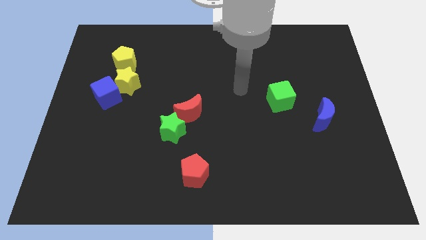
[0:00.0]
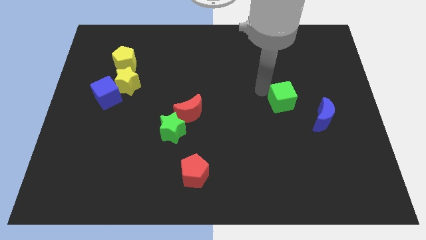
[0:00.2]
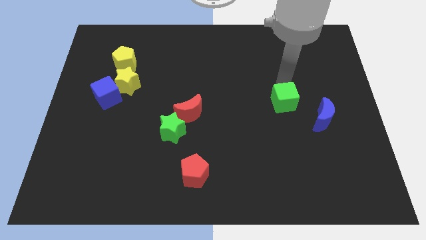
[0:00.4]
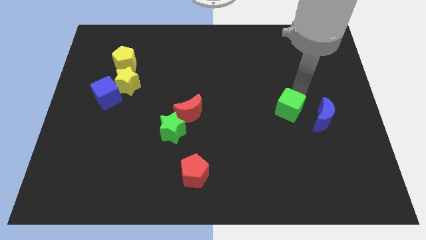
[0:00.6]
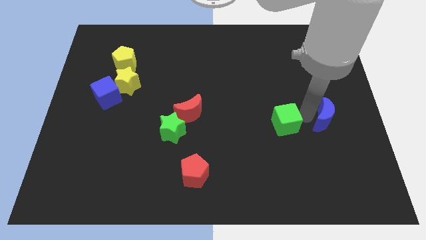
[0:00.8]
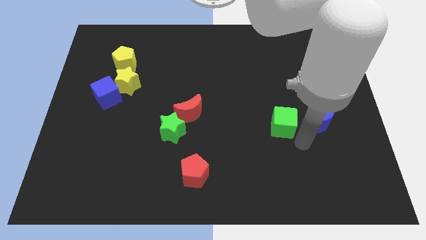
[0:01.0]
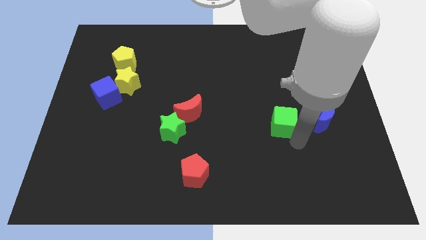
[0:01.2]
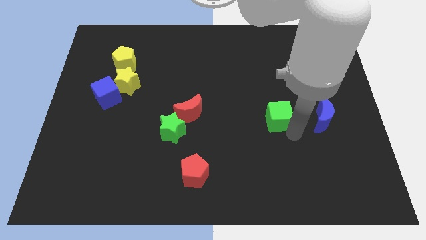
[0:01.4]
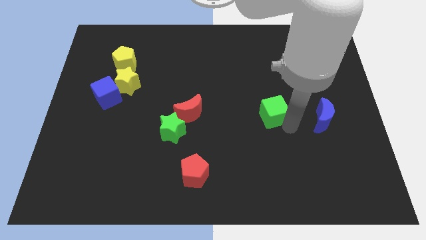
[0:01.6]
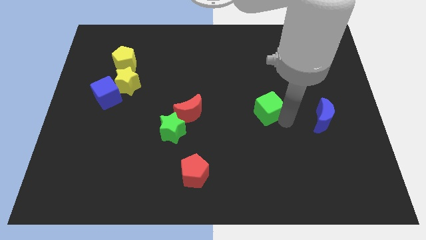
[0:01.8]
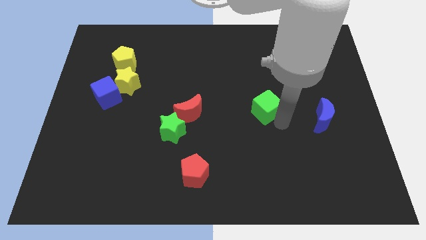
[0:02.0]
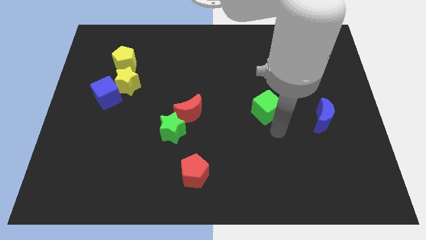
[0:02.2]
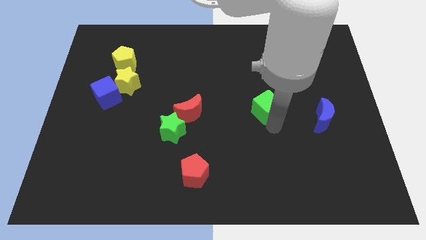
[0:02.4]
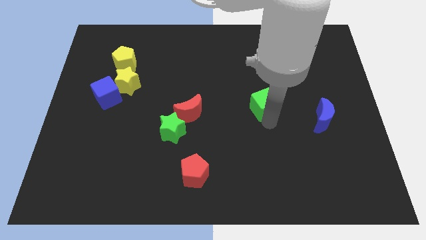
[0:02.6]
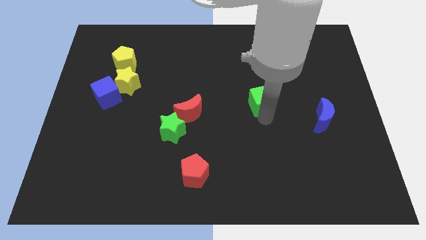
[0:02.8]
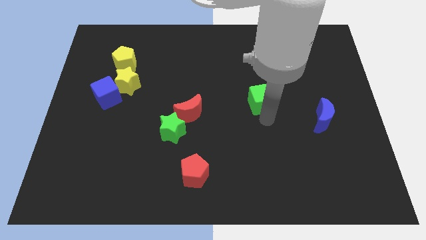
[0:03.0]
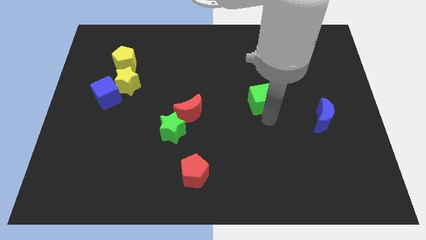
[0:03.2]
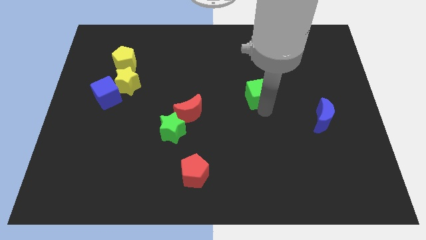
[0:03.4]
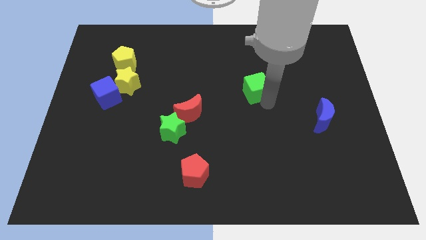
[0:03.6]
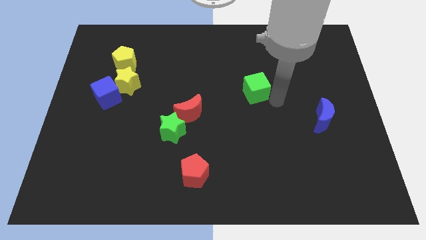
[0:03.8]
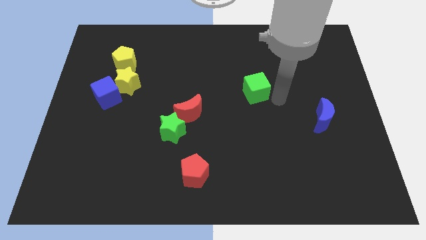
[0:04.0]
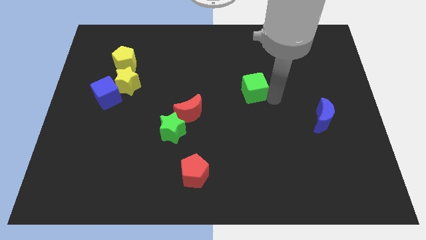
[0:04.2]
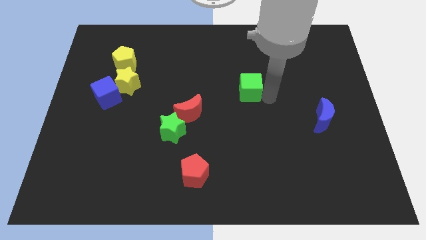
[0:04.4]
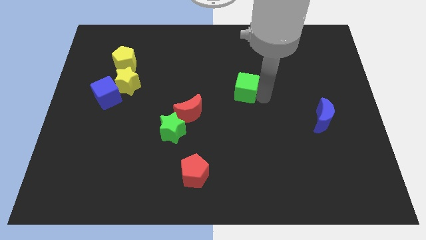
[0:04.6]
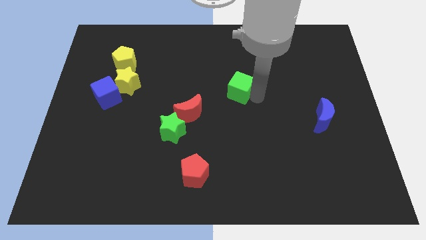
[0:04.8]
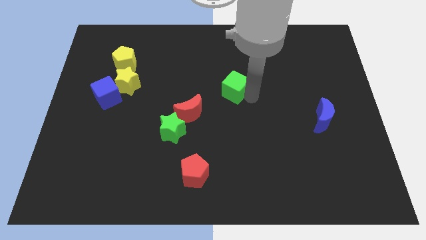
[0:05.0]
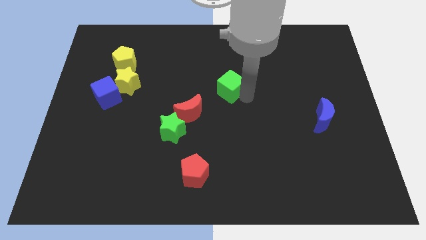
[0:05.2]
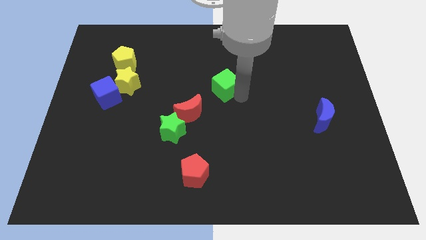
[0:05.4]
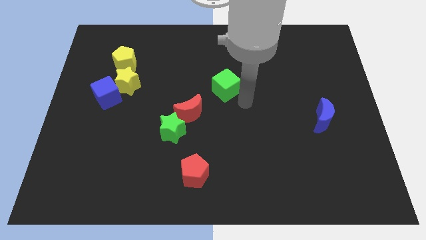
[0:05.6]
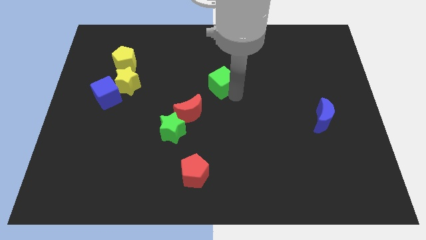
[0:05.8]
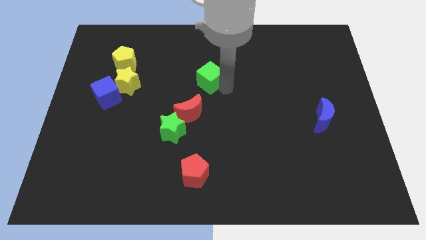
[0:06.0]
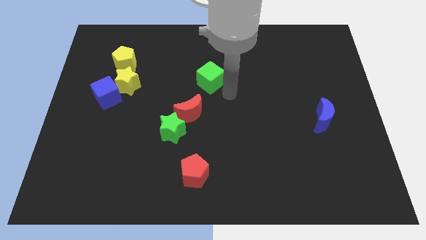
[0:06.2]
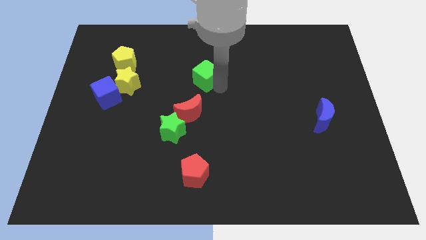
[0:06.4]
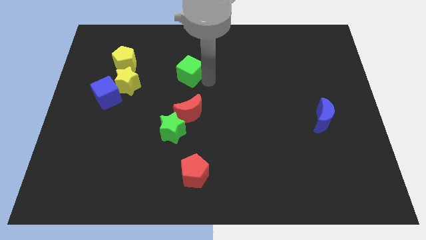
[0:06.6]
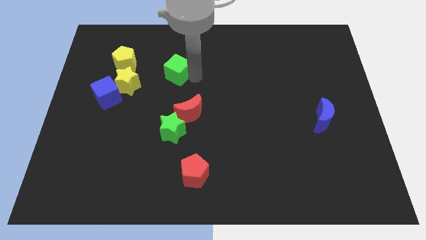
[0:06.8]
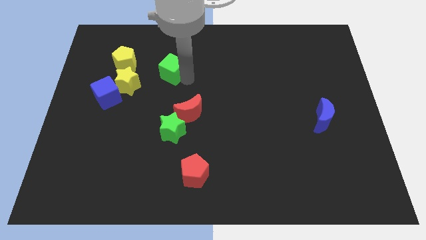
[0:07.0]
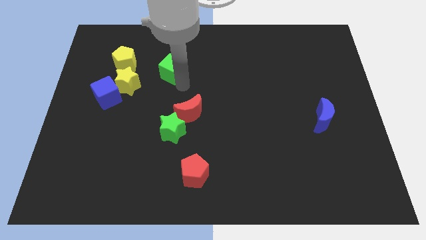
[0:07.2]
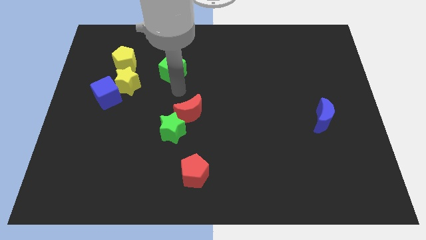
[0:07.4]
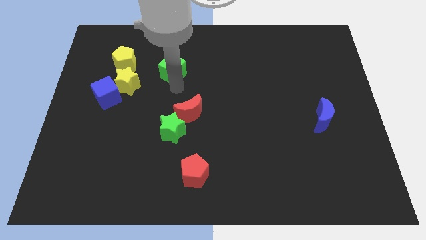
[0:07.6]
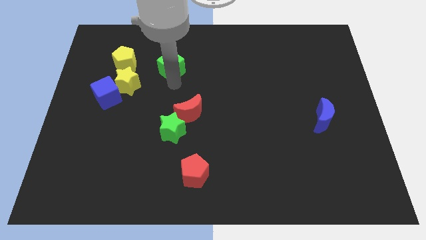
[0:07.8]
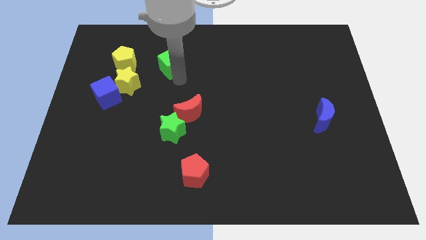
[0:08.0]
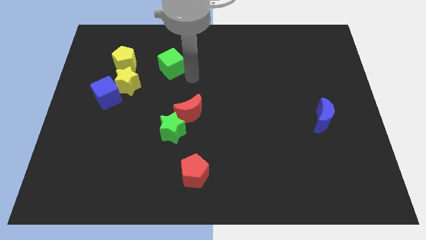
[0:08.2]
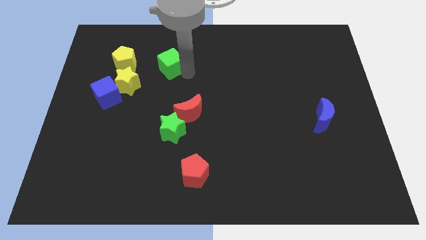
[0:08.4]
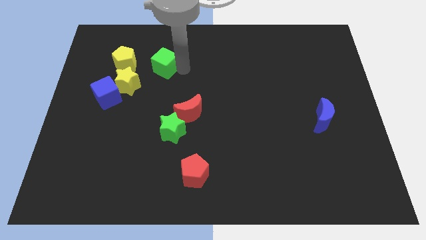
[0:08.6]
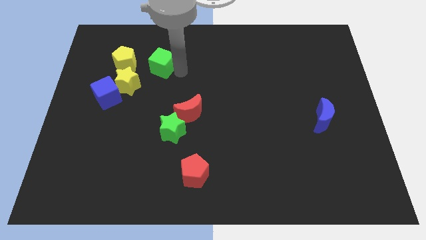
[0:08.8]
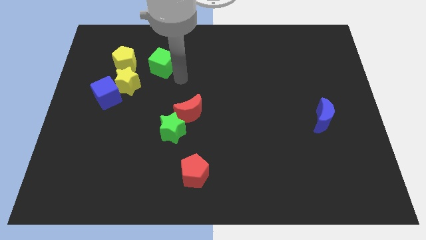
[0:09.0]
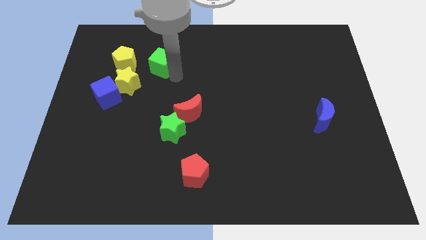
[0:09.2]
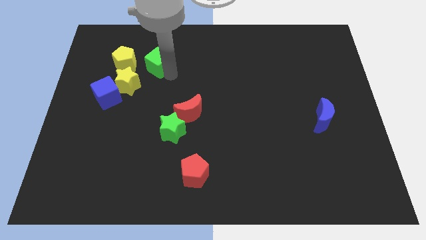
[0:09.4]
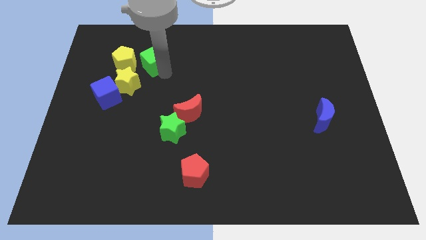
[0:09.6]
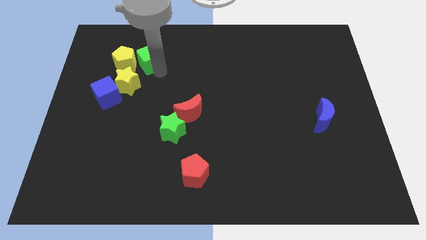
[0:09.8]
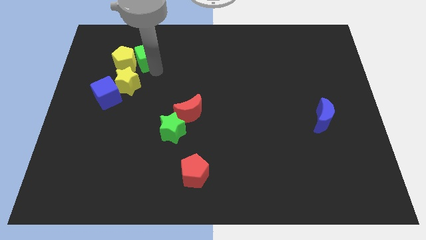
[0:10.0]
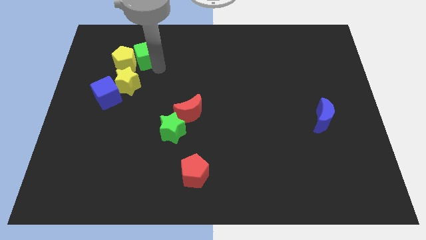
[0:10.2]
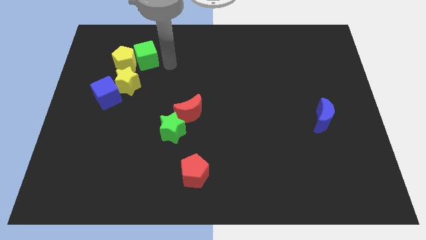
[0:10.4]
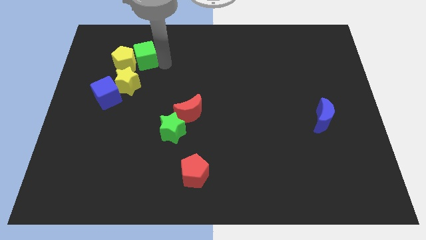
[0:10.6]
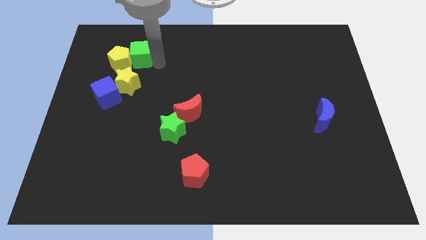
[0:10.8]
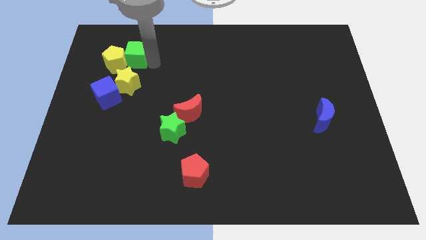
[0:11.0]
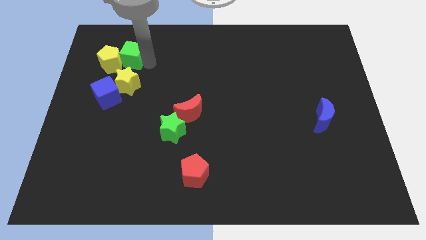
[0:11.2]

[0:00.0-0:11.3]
slide the green cube to the top of the blue cube

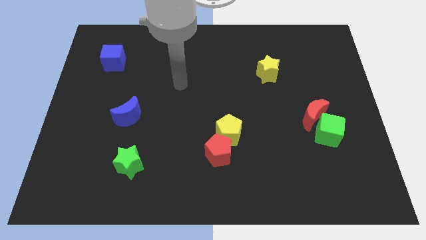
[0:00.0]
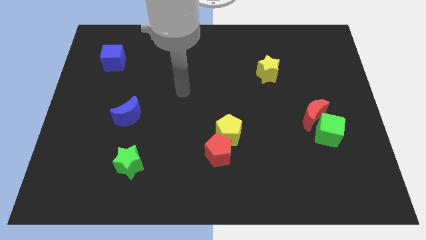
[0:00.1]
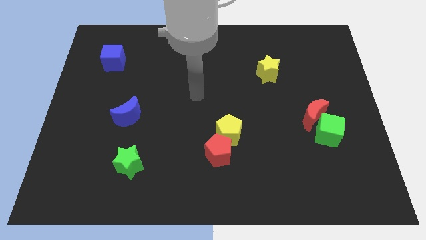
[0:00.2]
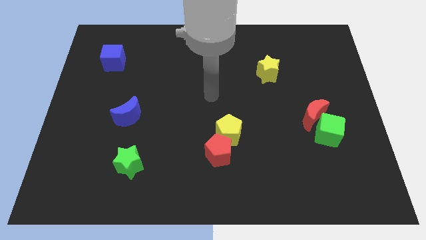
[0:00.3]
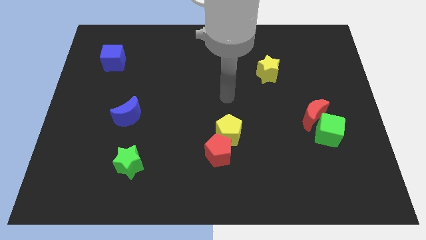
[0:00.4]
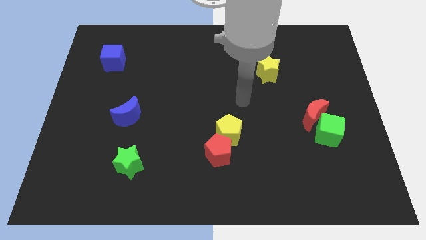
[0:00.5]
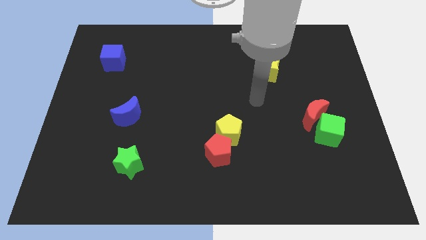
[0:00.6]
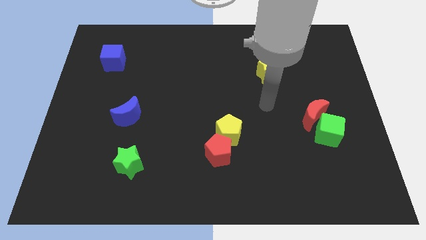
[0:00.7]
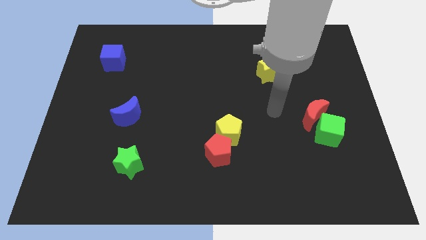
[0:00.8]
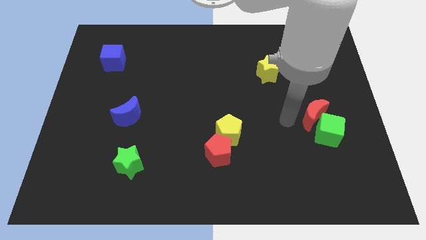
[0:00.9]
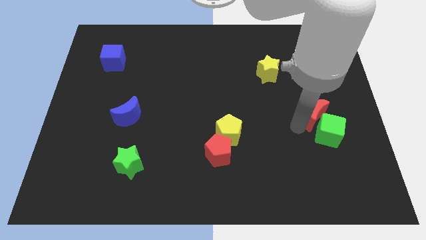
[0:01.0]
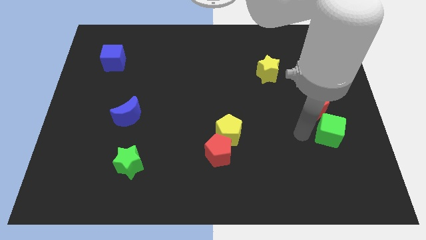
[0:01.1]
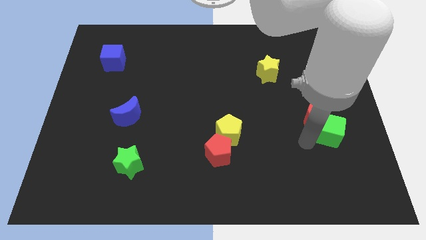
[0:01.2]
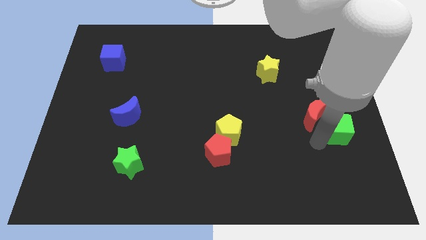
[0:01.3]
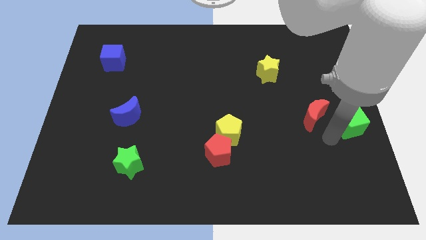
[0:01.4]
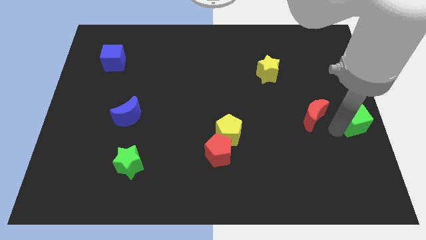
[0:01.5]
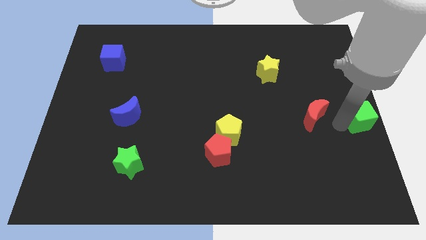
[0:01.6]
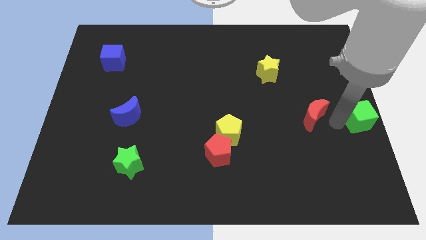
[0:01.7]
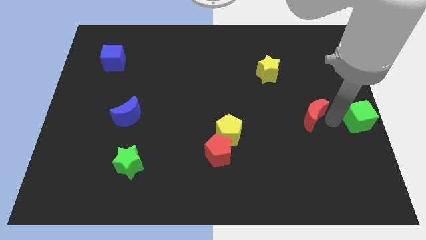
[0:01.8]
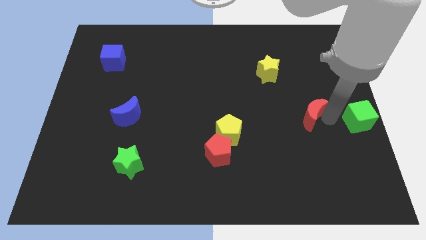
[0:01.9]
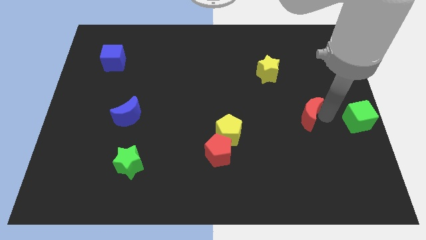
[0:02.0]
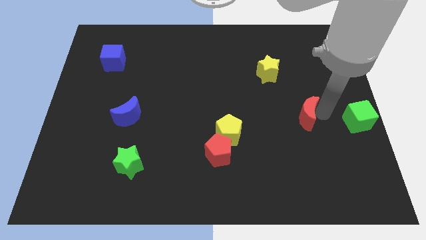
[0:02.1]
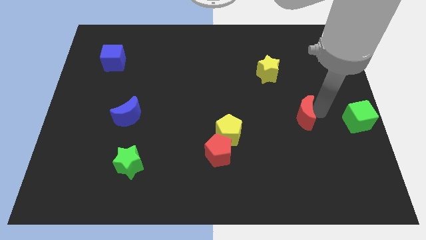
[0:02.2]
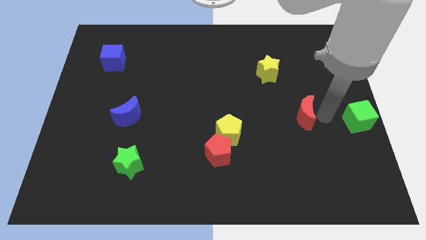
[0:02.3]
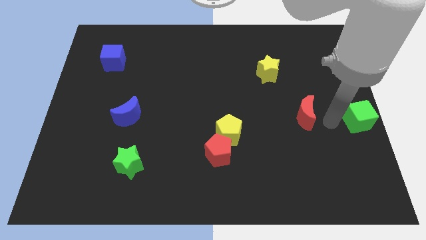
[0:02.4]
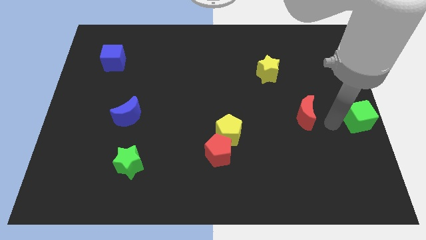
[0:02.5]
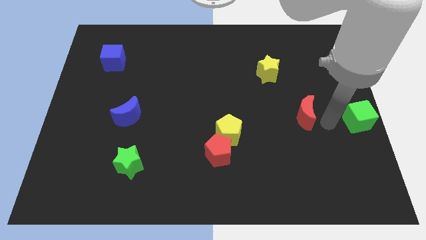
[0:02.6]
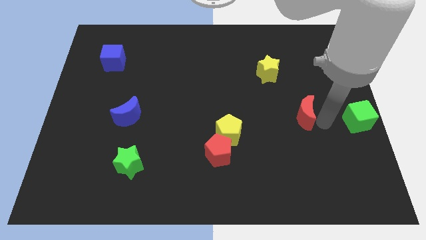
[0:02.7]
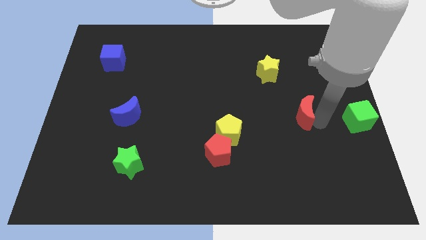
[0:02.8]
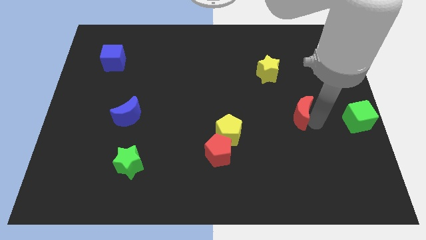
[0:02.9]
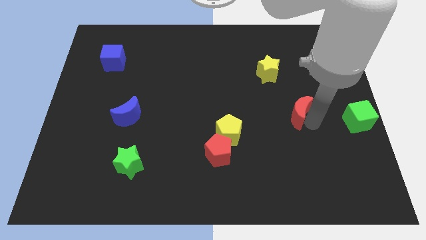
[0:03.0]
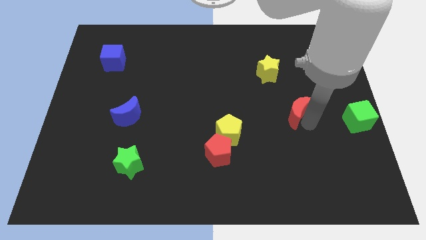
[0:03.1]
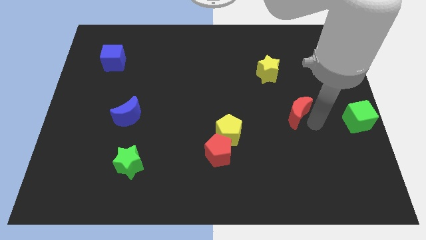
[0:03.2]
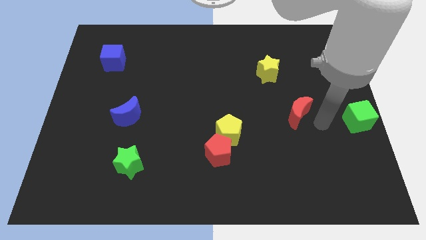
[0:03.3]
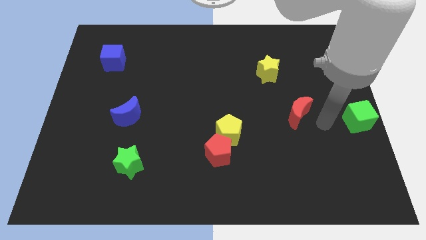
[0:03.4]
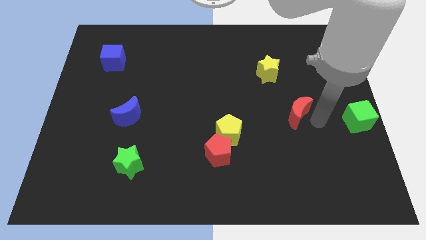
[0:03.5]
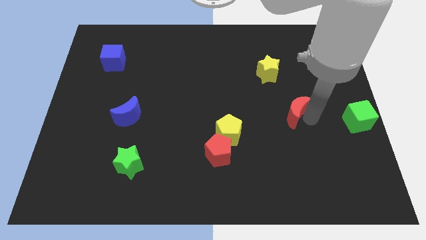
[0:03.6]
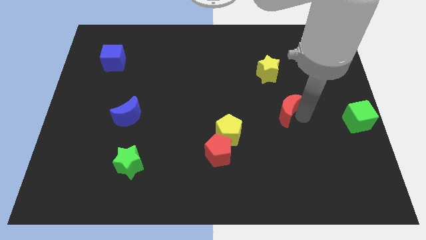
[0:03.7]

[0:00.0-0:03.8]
slide the red moon to the bottom side of the yellow star
